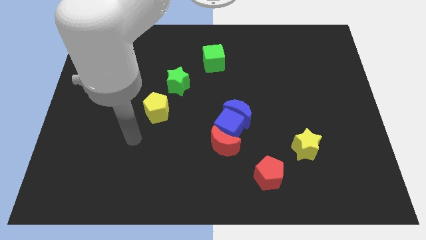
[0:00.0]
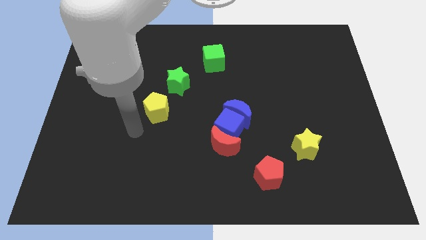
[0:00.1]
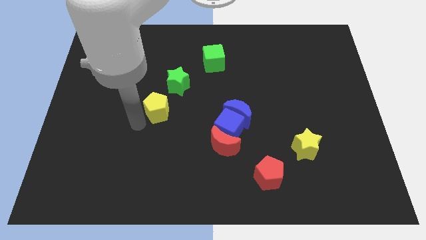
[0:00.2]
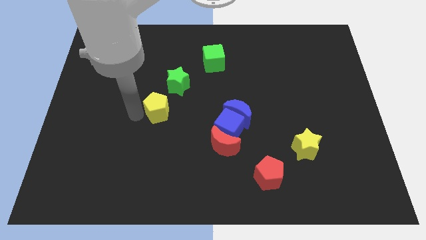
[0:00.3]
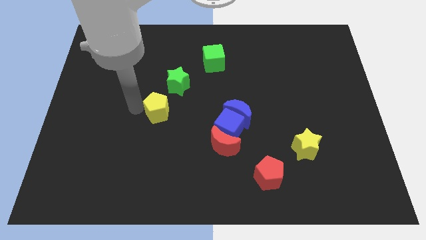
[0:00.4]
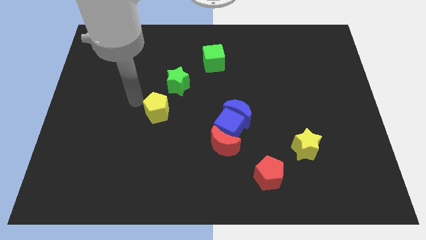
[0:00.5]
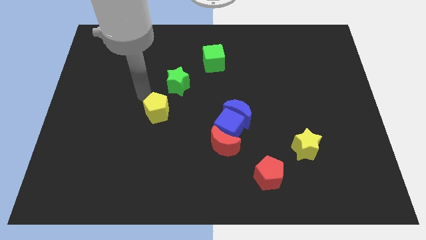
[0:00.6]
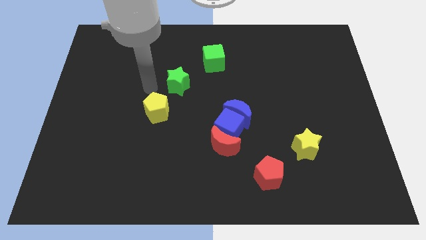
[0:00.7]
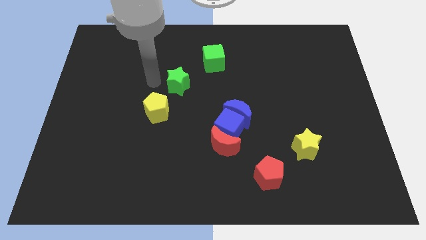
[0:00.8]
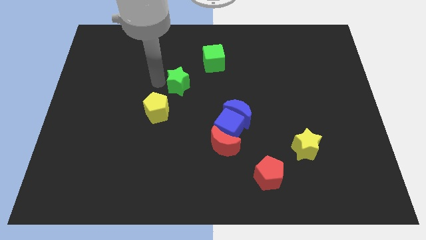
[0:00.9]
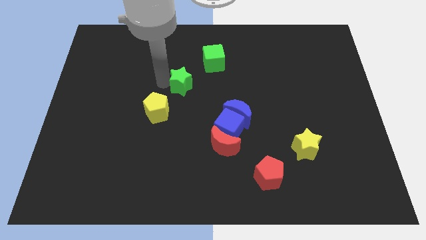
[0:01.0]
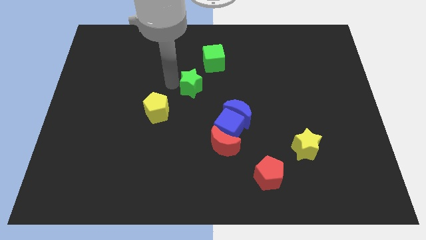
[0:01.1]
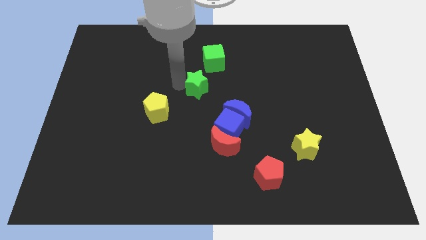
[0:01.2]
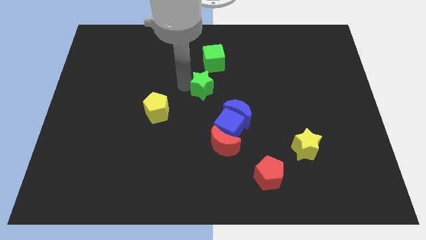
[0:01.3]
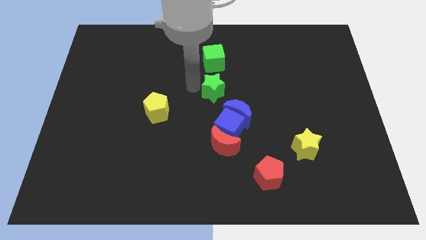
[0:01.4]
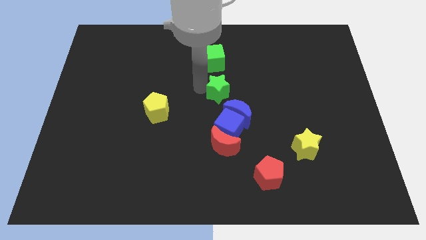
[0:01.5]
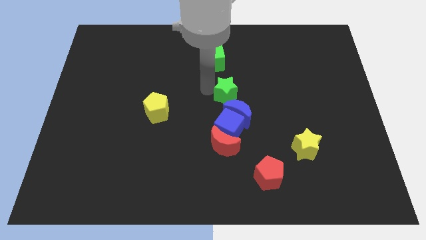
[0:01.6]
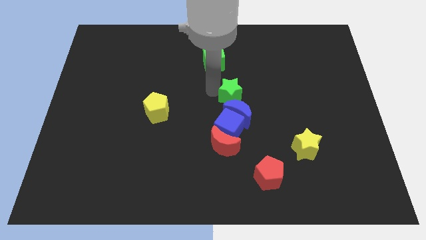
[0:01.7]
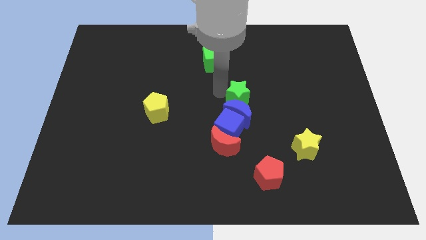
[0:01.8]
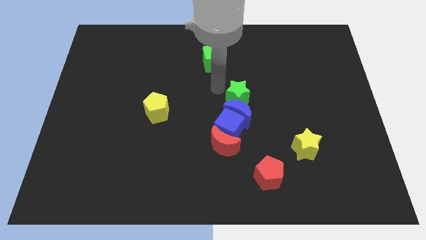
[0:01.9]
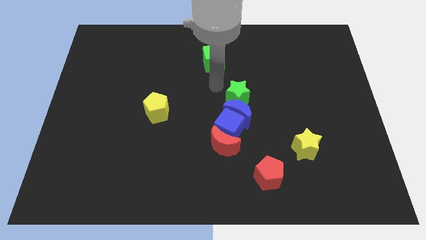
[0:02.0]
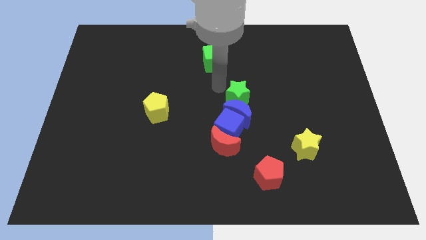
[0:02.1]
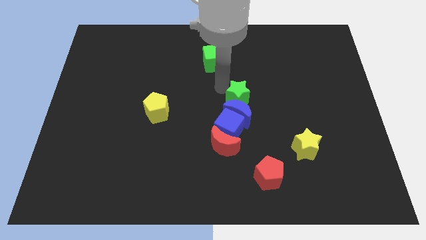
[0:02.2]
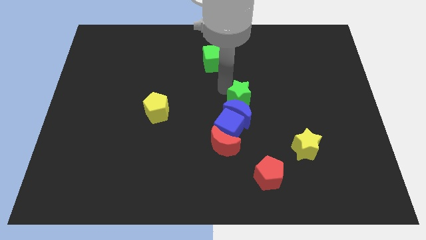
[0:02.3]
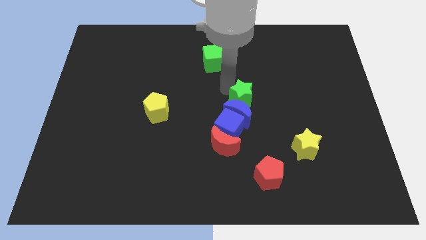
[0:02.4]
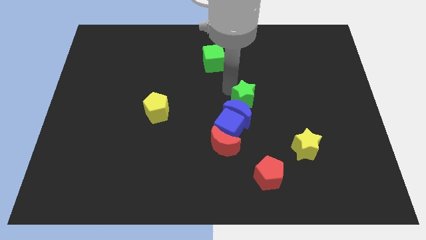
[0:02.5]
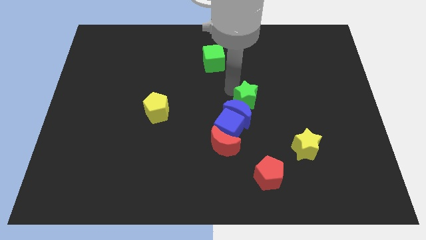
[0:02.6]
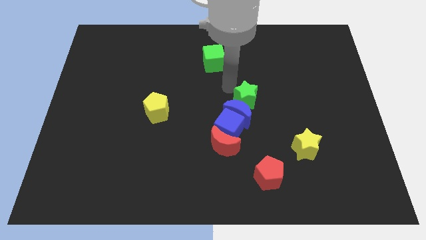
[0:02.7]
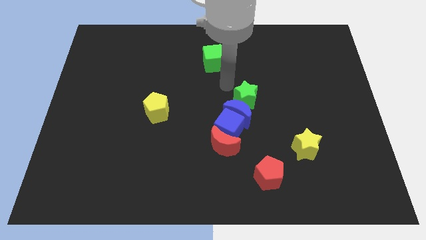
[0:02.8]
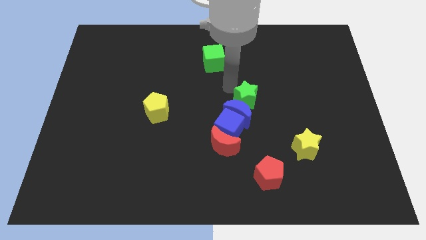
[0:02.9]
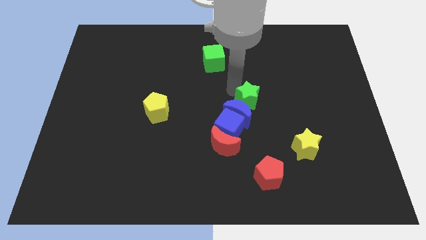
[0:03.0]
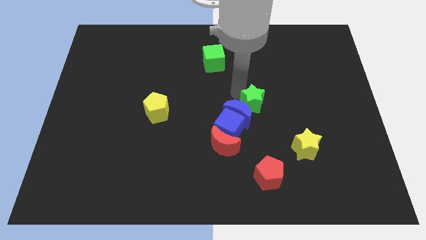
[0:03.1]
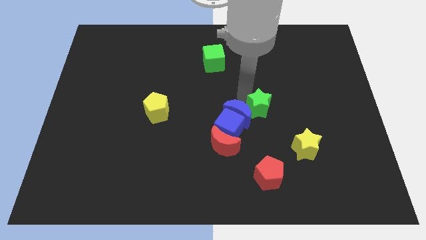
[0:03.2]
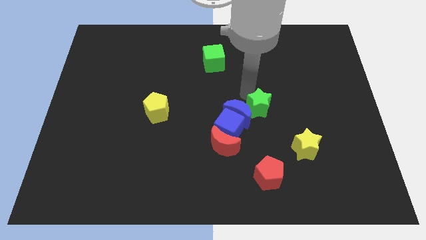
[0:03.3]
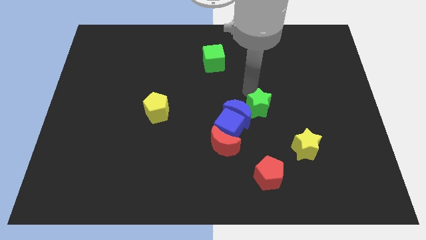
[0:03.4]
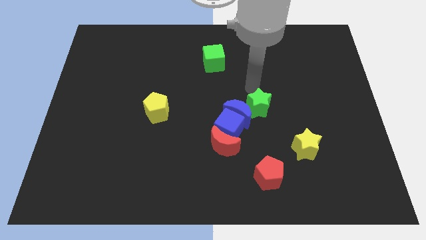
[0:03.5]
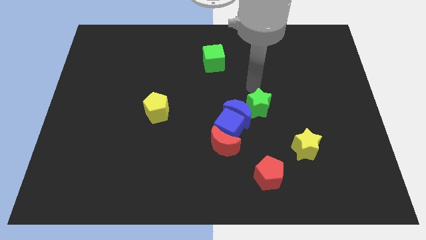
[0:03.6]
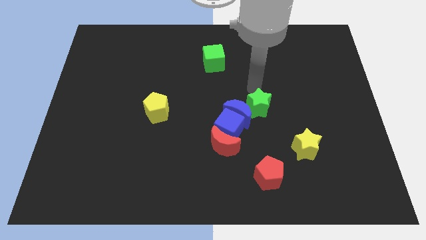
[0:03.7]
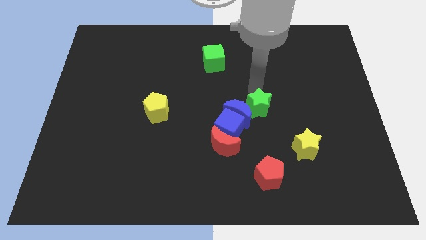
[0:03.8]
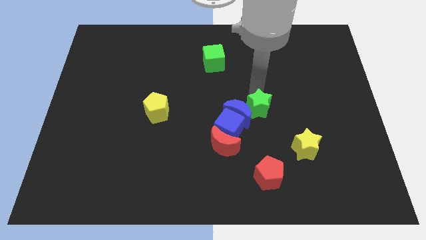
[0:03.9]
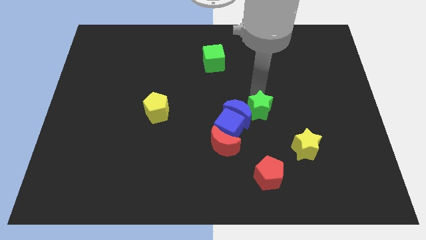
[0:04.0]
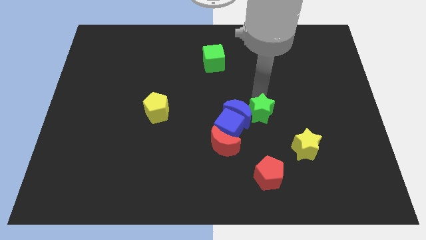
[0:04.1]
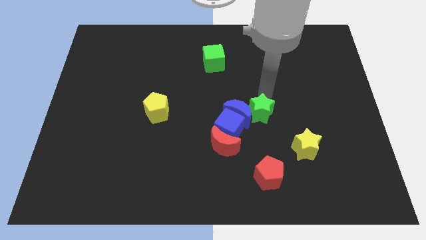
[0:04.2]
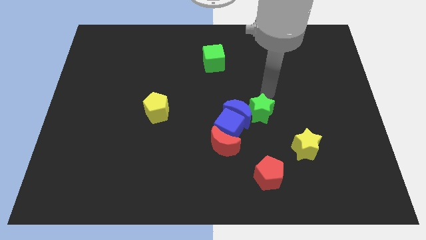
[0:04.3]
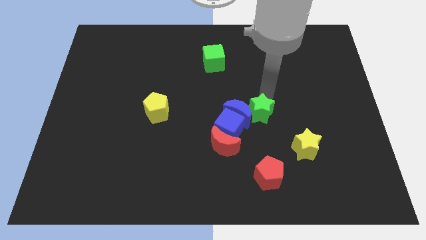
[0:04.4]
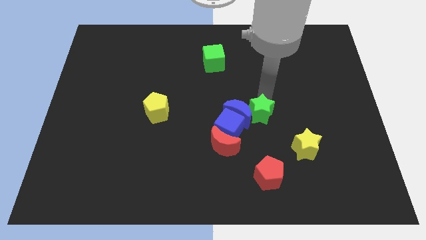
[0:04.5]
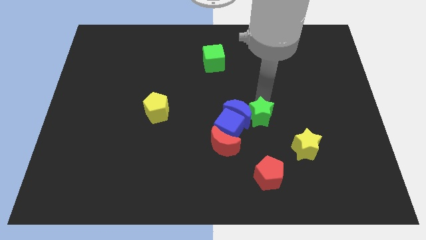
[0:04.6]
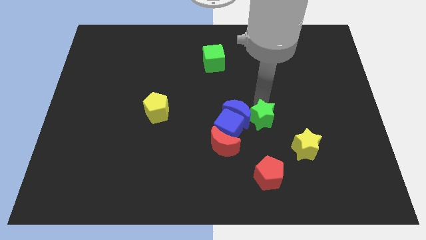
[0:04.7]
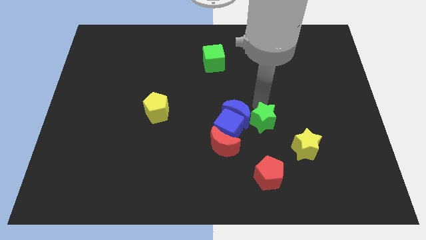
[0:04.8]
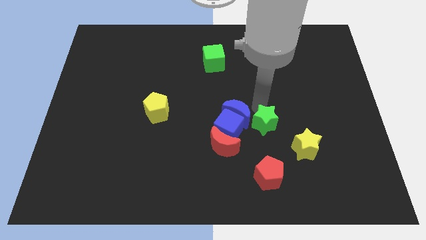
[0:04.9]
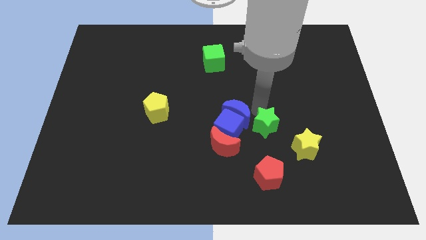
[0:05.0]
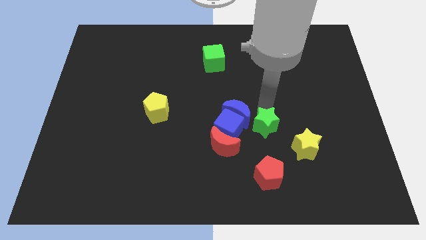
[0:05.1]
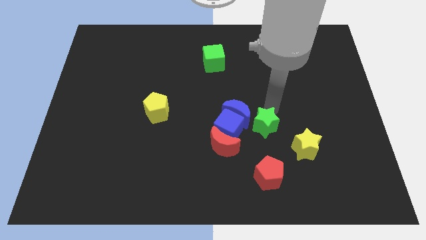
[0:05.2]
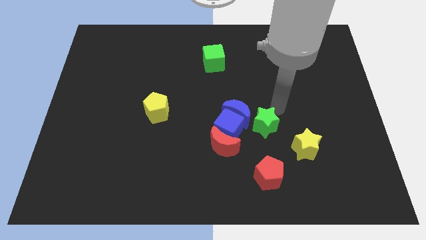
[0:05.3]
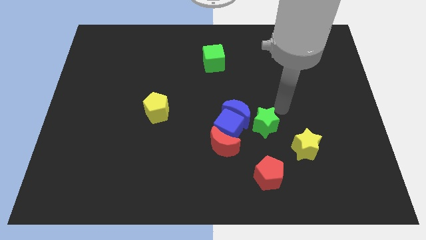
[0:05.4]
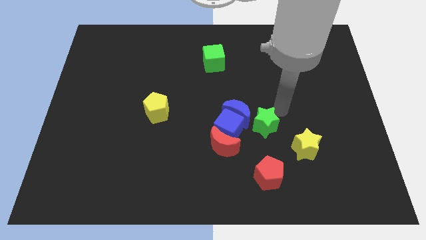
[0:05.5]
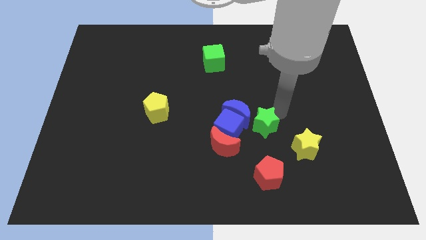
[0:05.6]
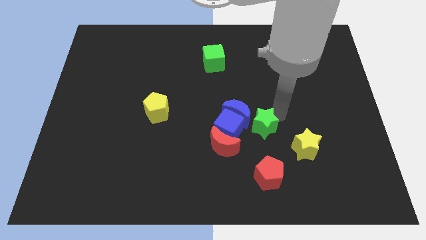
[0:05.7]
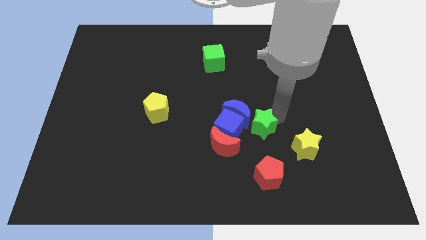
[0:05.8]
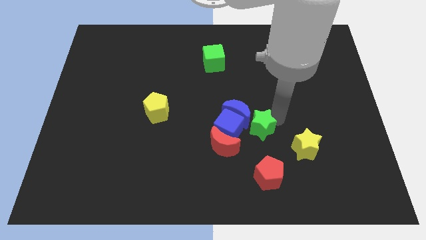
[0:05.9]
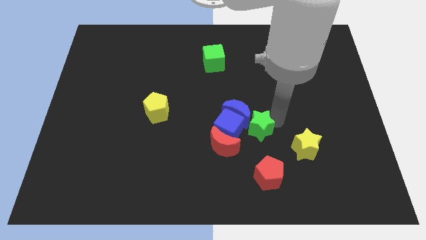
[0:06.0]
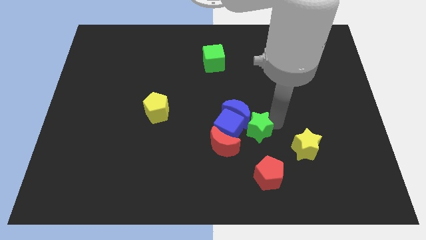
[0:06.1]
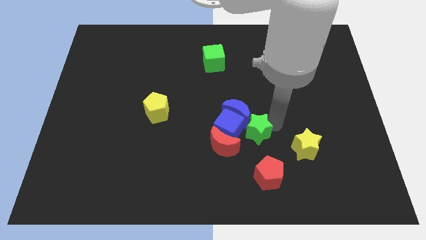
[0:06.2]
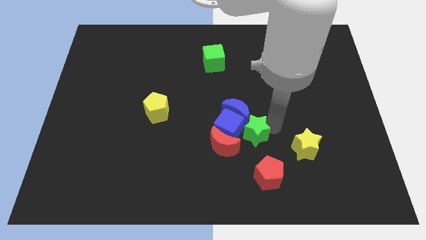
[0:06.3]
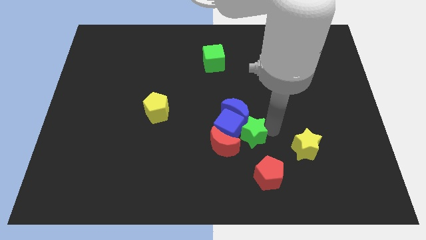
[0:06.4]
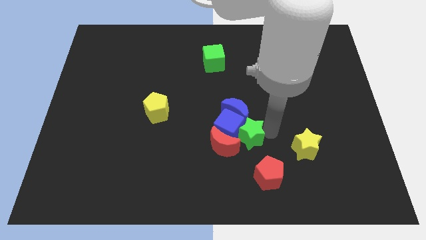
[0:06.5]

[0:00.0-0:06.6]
put the green star diagonally up and to the left of the red pentagon

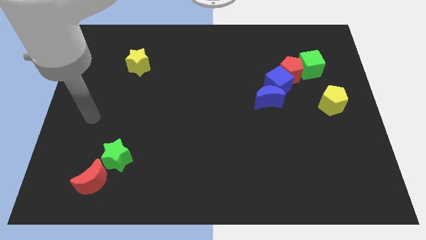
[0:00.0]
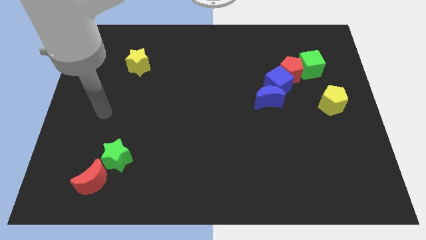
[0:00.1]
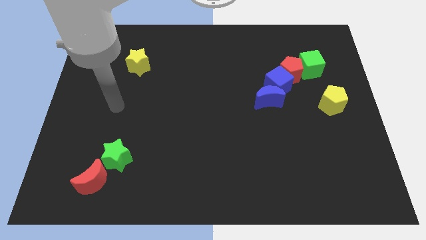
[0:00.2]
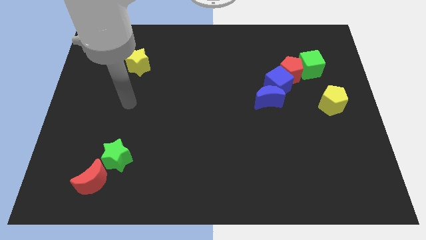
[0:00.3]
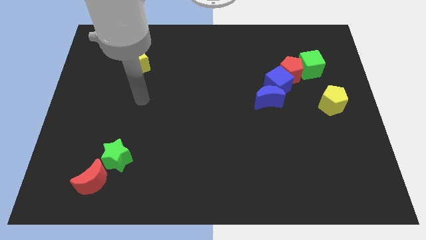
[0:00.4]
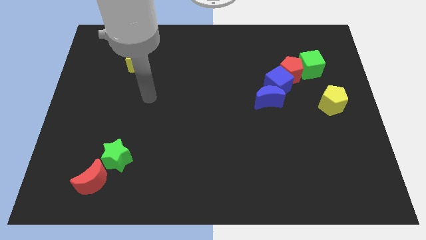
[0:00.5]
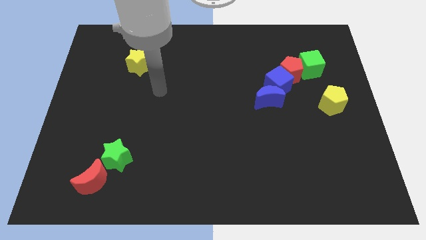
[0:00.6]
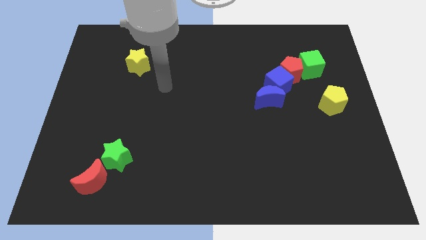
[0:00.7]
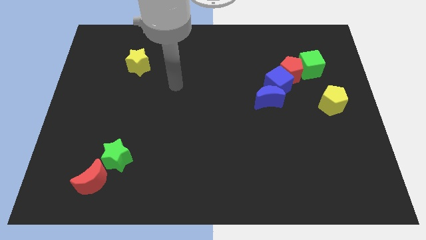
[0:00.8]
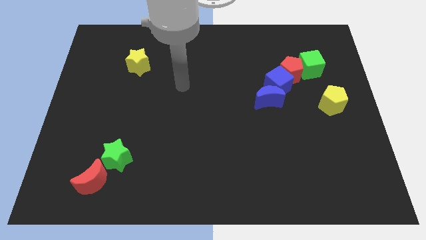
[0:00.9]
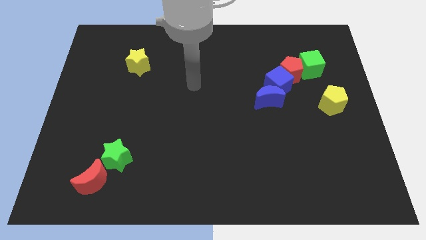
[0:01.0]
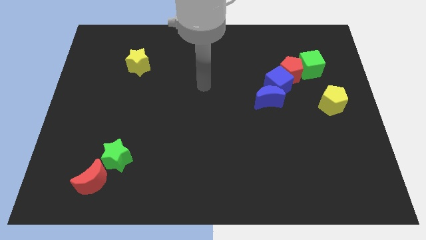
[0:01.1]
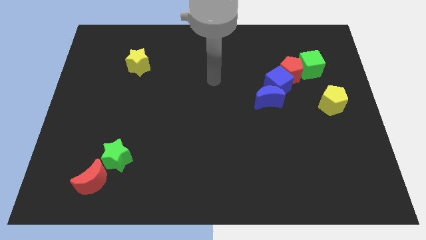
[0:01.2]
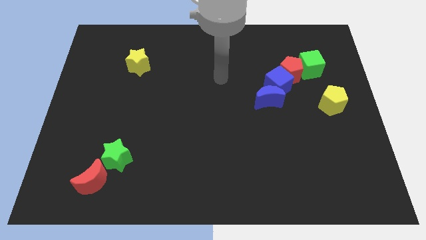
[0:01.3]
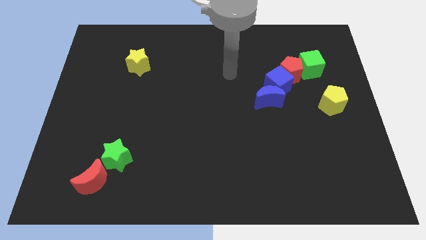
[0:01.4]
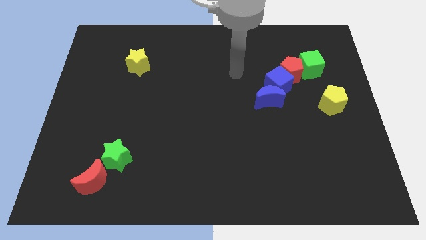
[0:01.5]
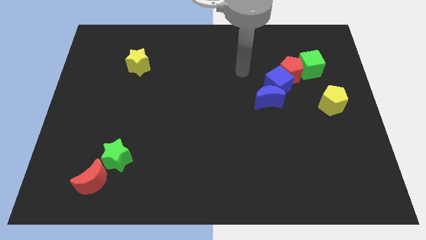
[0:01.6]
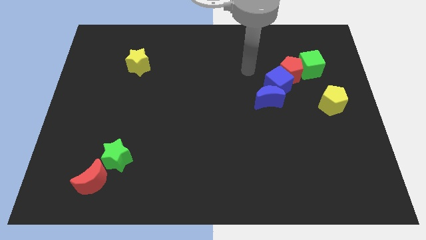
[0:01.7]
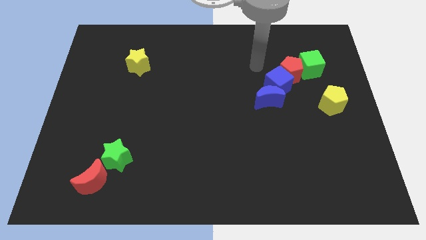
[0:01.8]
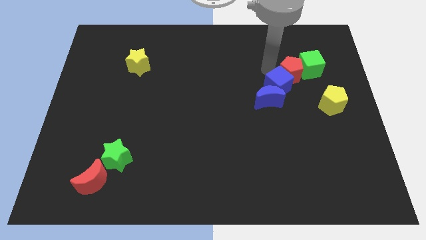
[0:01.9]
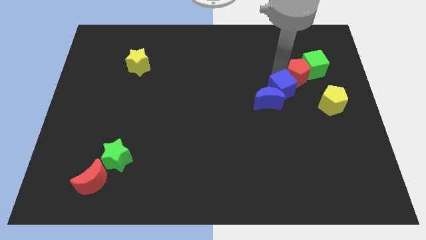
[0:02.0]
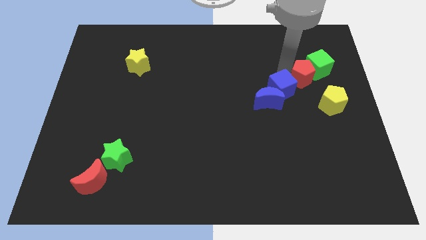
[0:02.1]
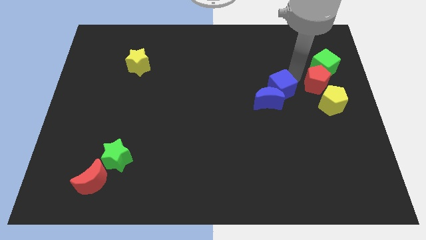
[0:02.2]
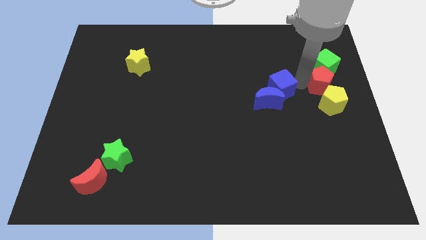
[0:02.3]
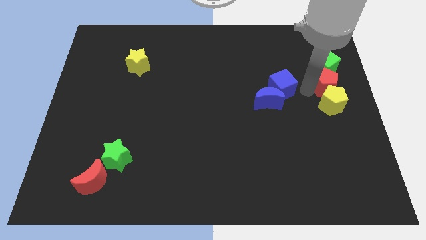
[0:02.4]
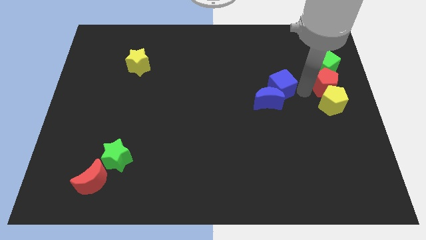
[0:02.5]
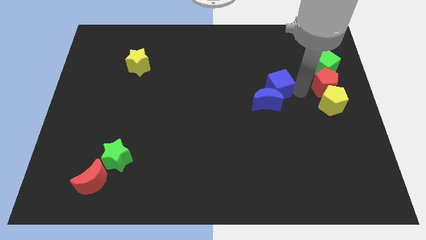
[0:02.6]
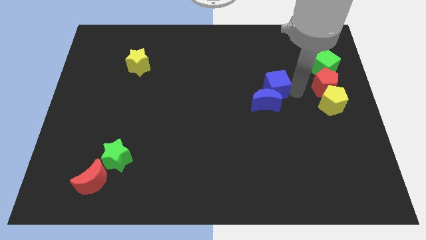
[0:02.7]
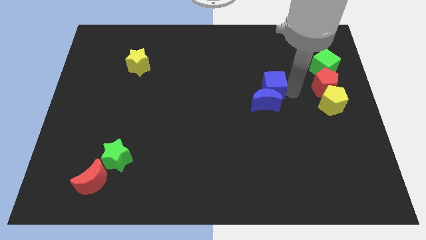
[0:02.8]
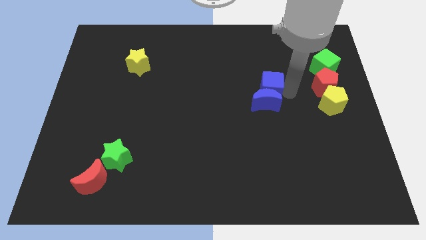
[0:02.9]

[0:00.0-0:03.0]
move the blue cube diagonally up and to the left of the blue moon
